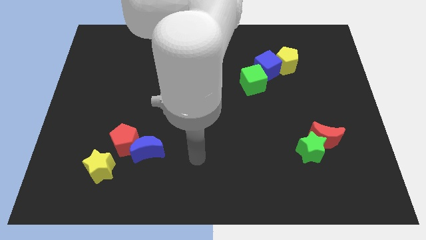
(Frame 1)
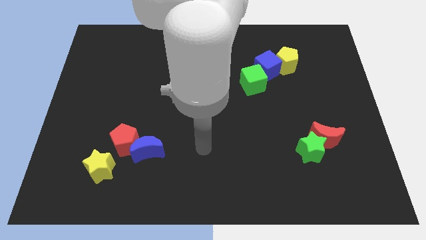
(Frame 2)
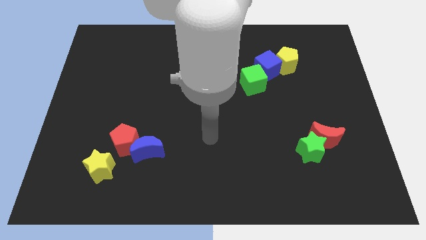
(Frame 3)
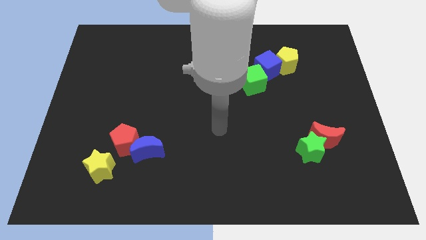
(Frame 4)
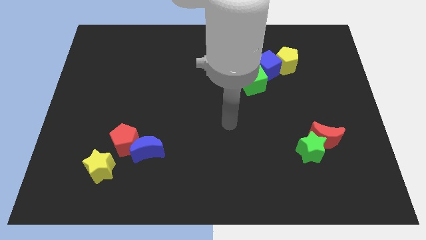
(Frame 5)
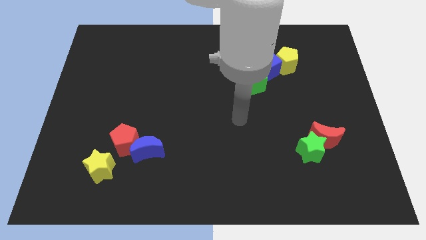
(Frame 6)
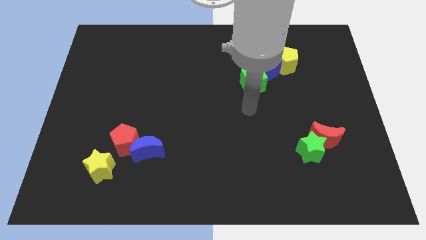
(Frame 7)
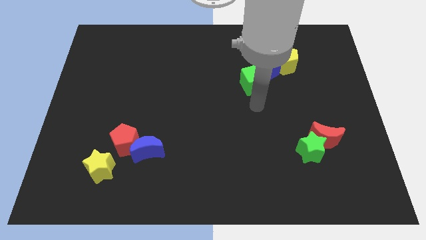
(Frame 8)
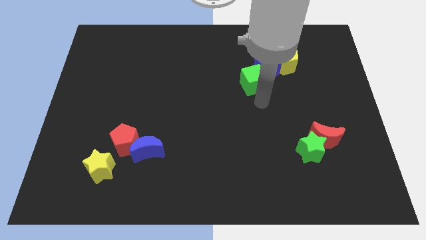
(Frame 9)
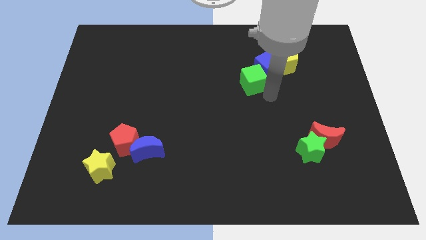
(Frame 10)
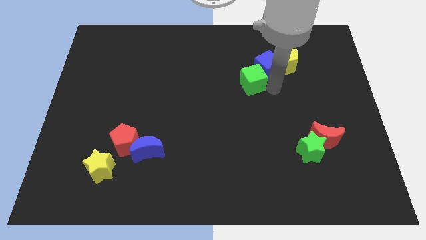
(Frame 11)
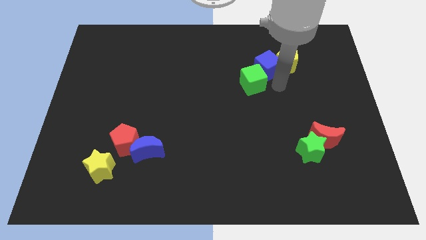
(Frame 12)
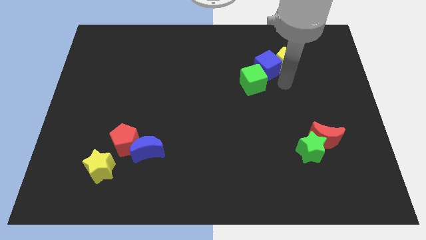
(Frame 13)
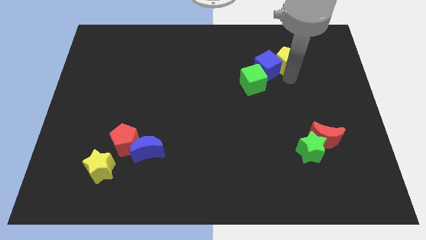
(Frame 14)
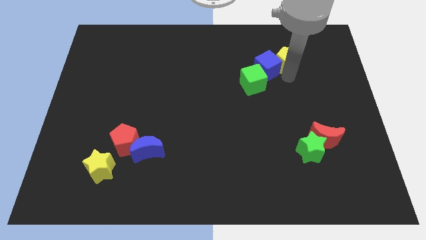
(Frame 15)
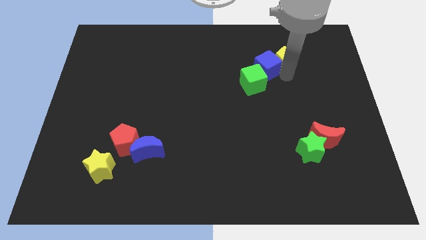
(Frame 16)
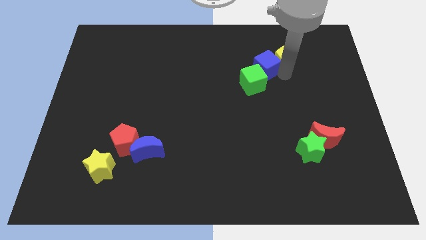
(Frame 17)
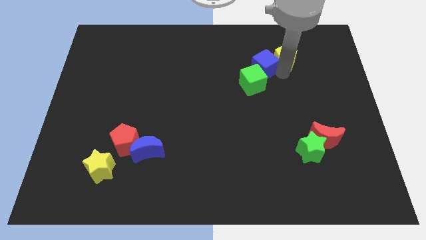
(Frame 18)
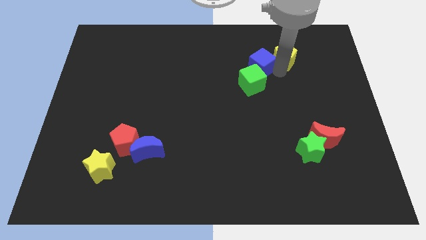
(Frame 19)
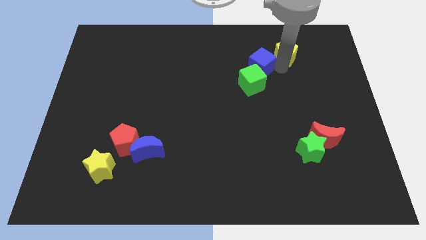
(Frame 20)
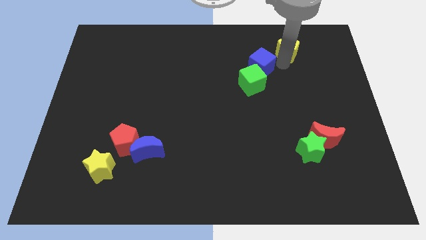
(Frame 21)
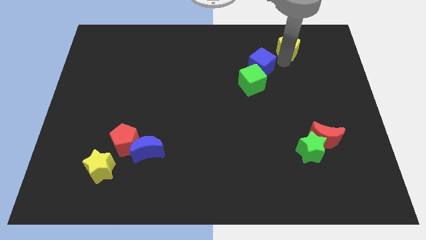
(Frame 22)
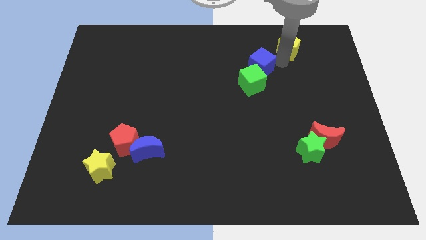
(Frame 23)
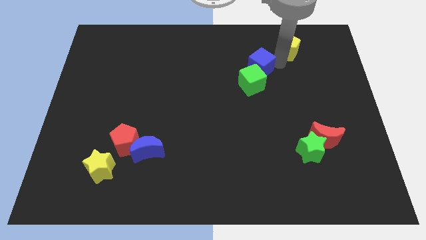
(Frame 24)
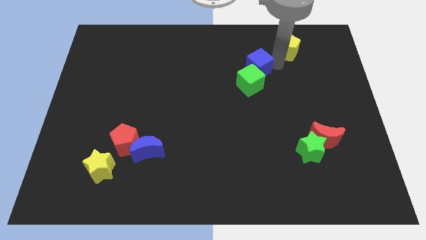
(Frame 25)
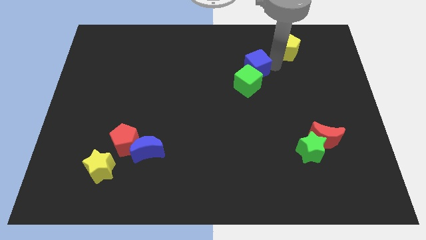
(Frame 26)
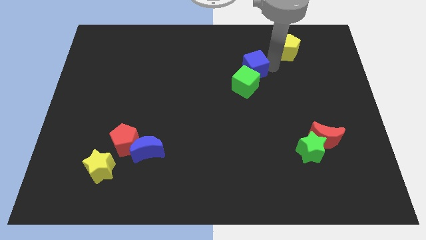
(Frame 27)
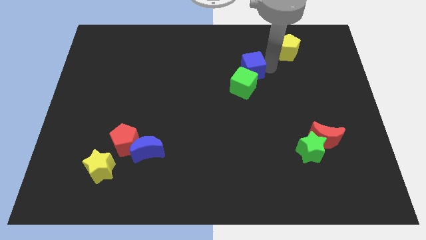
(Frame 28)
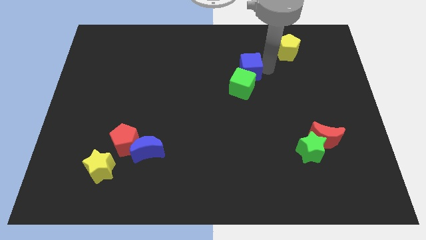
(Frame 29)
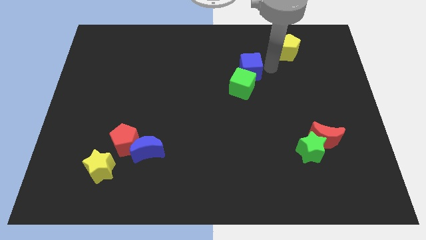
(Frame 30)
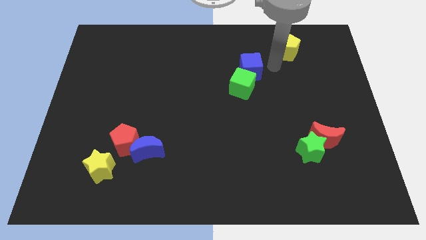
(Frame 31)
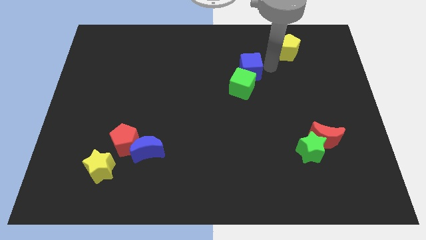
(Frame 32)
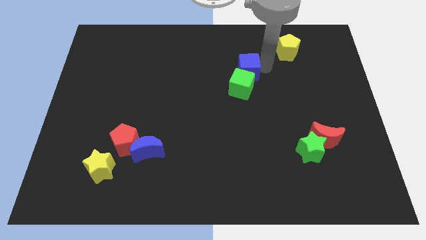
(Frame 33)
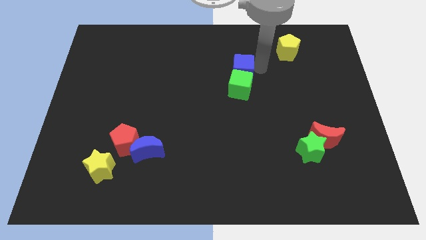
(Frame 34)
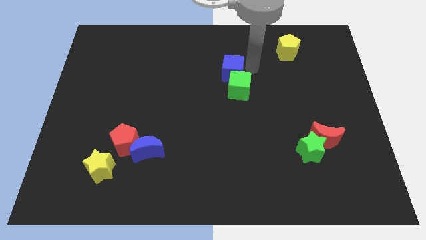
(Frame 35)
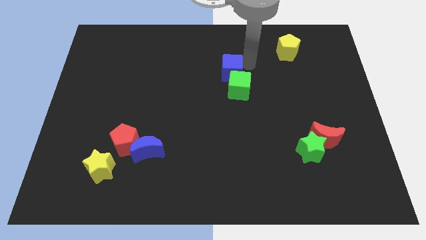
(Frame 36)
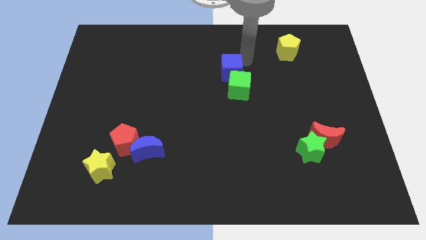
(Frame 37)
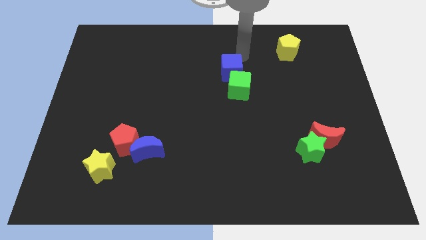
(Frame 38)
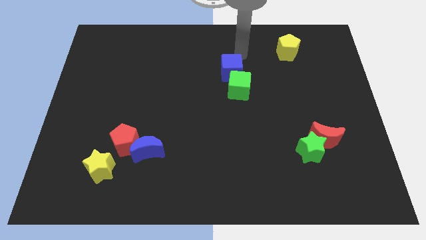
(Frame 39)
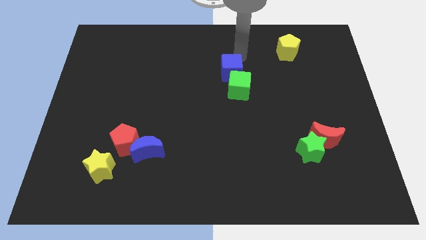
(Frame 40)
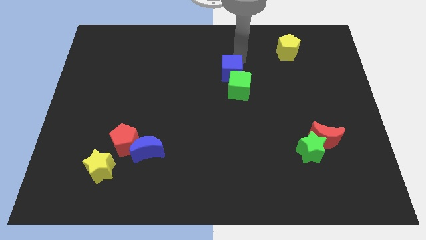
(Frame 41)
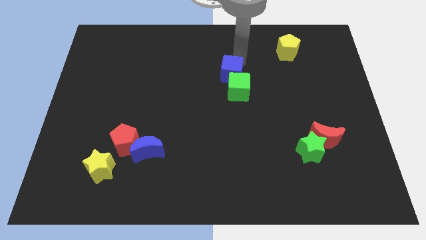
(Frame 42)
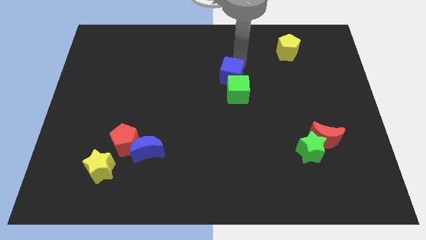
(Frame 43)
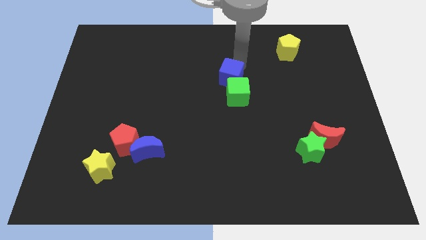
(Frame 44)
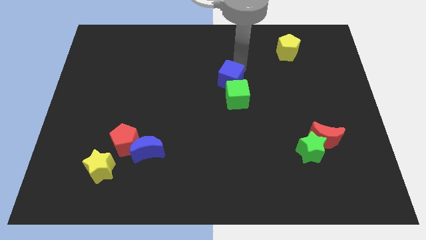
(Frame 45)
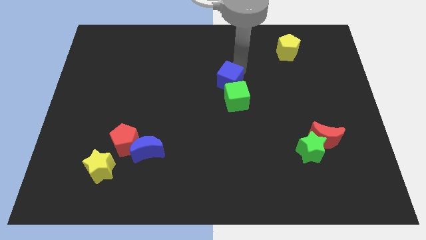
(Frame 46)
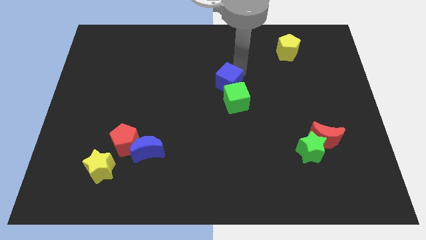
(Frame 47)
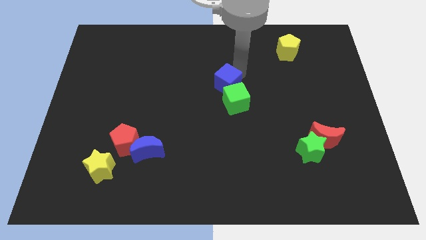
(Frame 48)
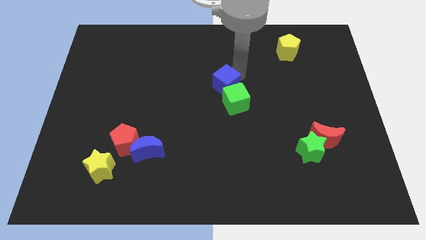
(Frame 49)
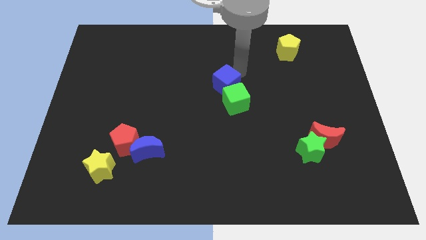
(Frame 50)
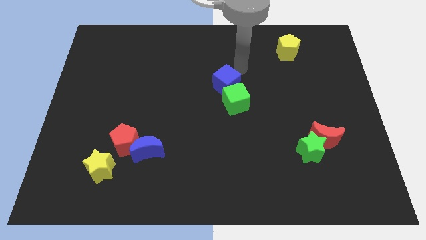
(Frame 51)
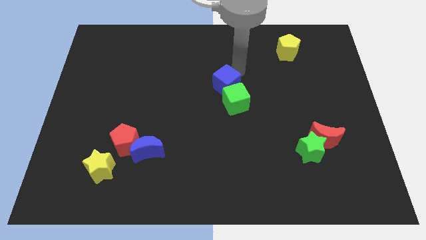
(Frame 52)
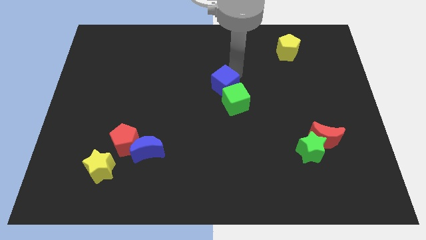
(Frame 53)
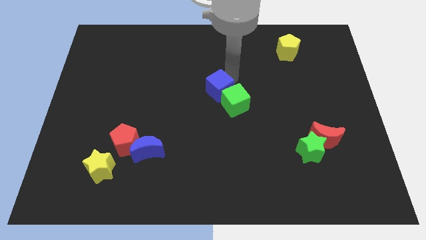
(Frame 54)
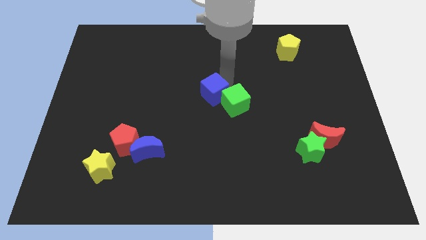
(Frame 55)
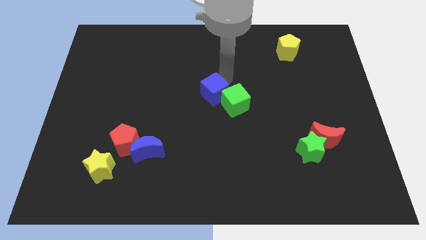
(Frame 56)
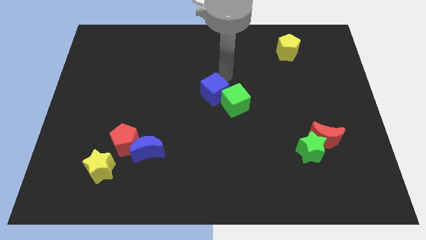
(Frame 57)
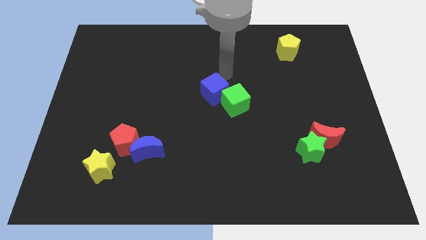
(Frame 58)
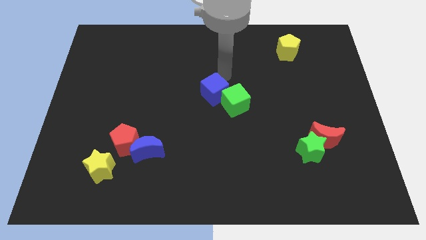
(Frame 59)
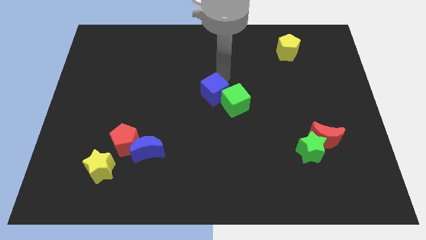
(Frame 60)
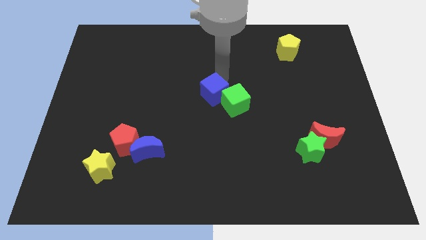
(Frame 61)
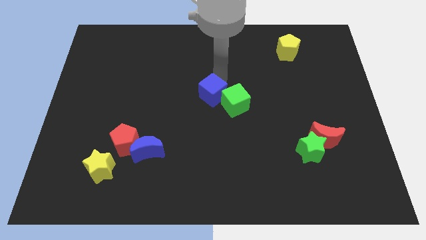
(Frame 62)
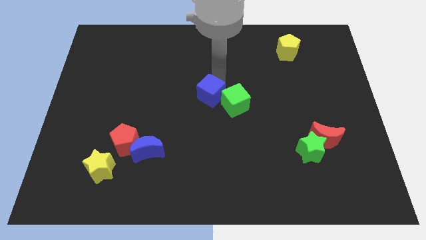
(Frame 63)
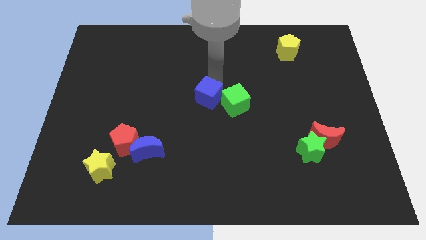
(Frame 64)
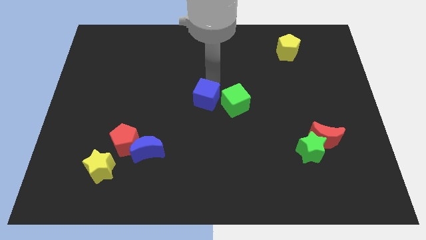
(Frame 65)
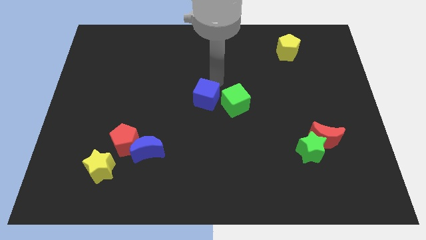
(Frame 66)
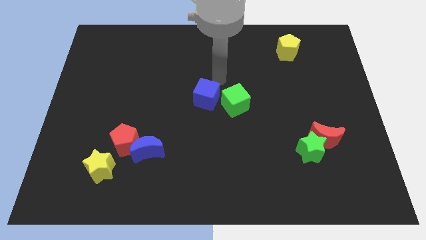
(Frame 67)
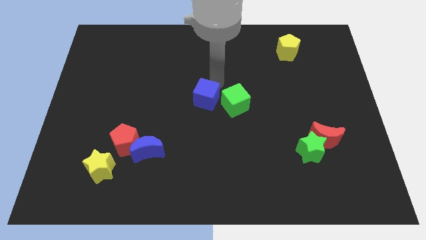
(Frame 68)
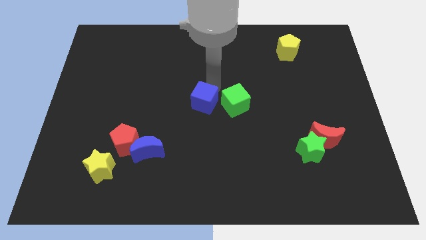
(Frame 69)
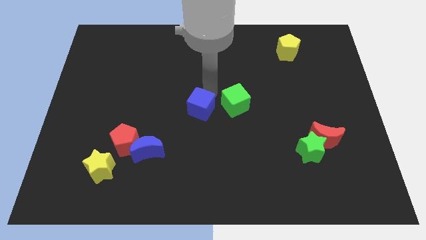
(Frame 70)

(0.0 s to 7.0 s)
push the blue cube downwards and to the left

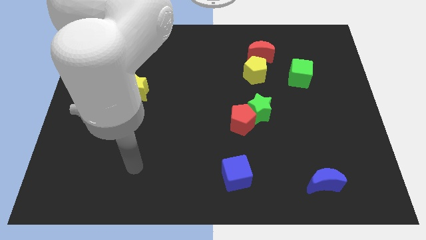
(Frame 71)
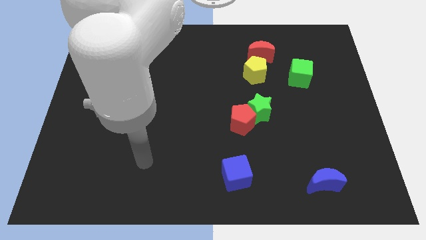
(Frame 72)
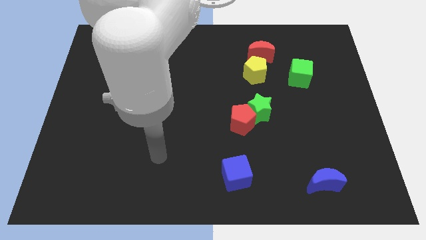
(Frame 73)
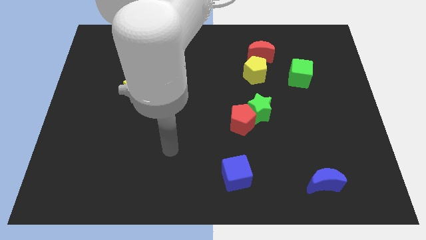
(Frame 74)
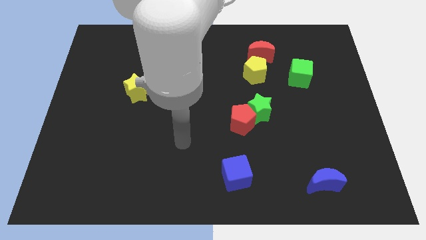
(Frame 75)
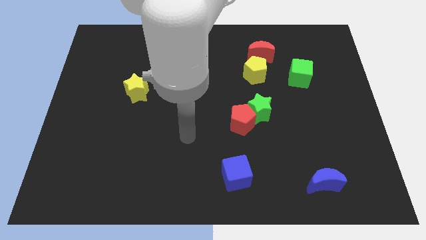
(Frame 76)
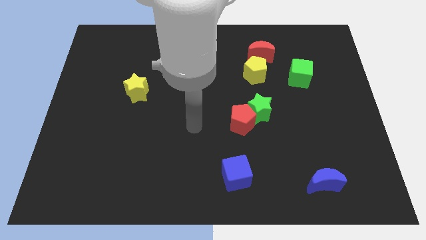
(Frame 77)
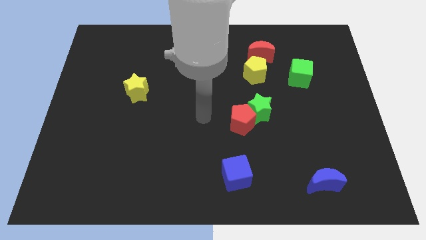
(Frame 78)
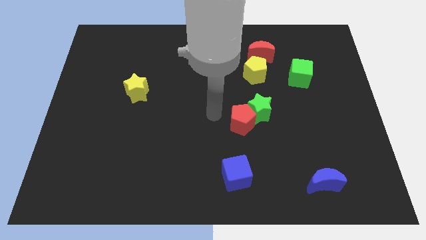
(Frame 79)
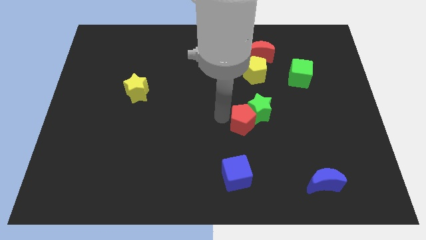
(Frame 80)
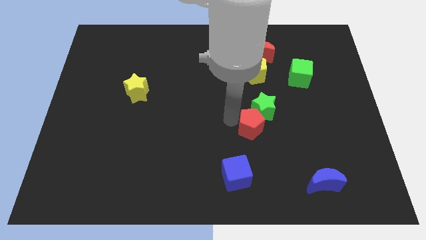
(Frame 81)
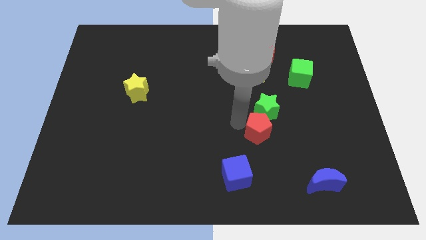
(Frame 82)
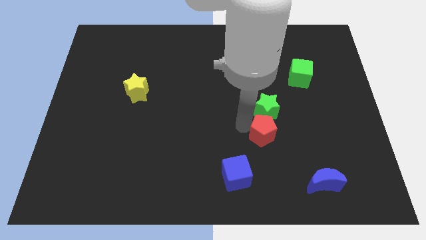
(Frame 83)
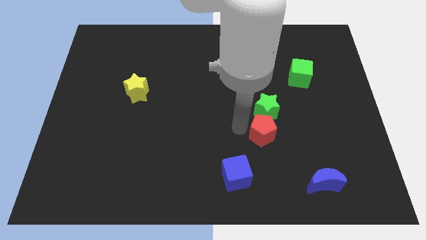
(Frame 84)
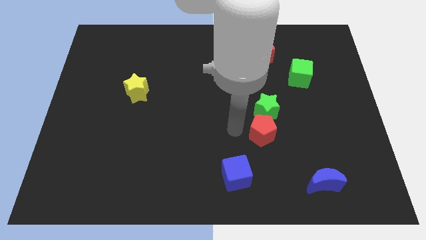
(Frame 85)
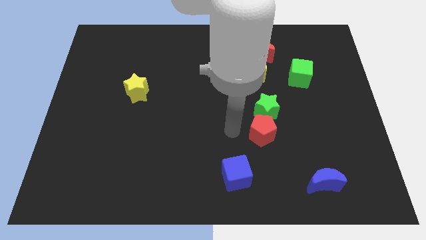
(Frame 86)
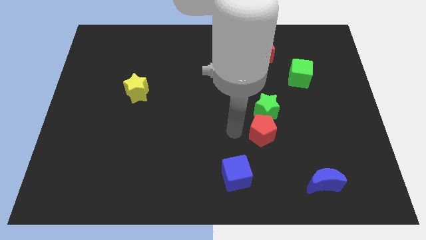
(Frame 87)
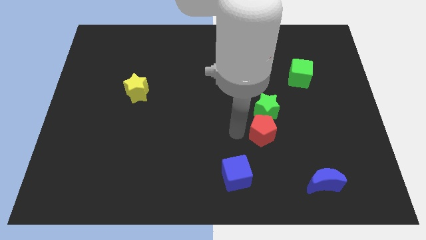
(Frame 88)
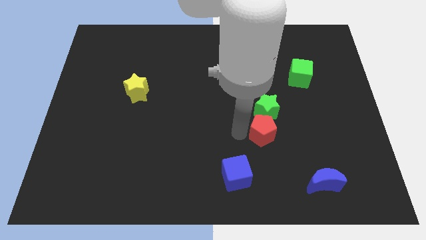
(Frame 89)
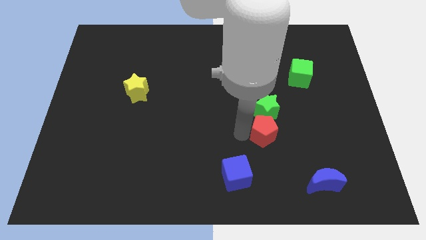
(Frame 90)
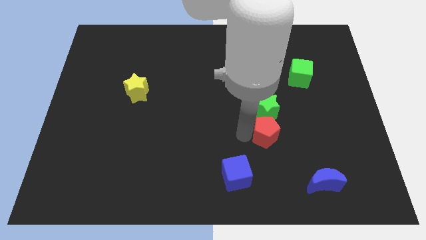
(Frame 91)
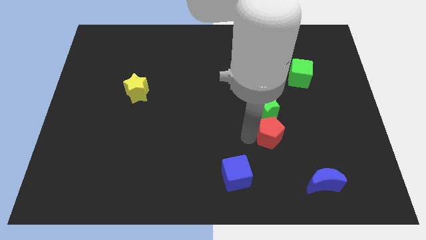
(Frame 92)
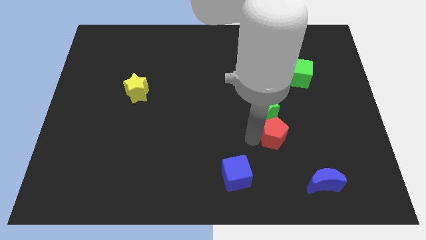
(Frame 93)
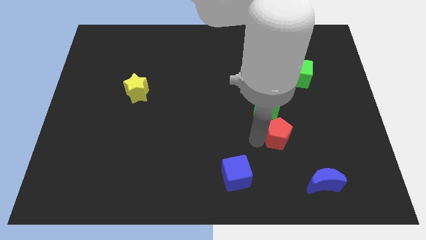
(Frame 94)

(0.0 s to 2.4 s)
slide the red pentagon a little bit to the right
